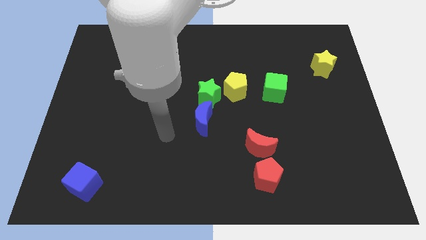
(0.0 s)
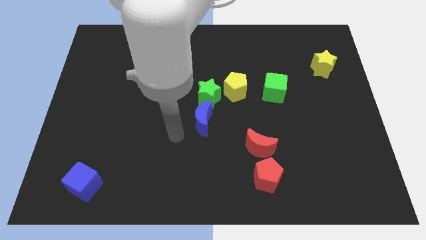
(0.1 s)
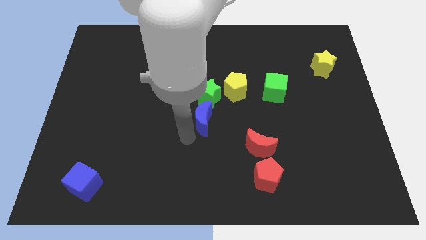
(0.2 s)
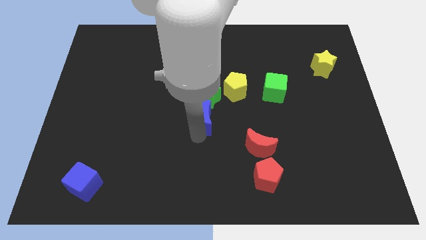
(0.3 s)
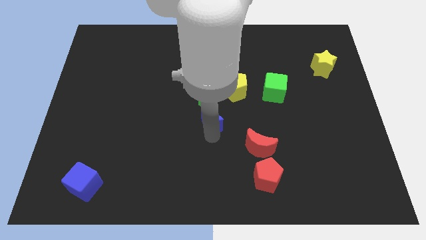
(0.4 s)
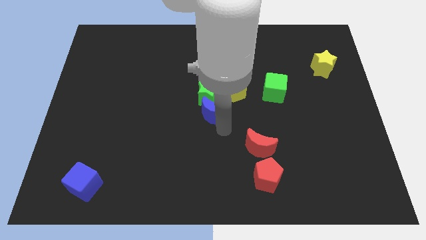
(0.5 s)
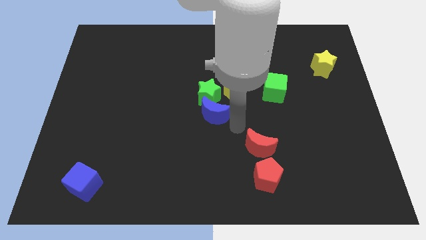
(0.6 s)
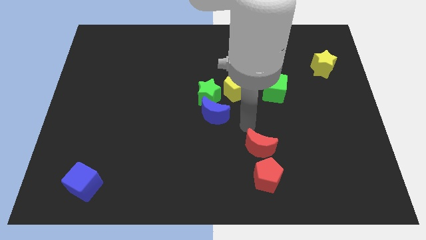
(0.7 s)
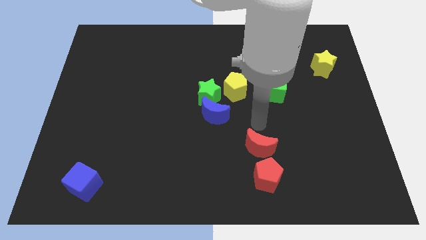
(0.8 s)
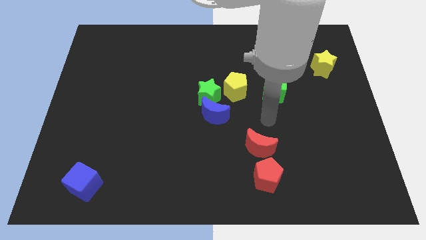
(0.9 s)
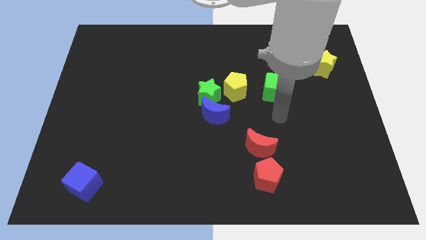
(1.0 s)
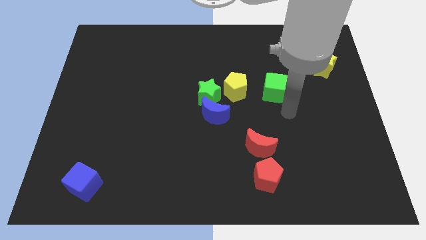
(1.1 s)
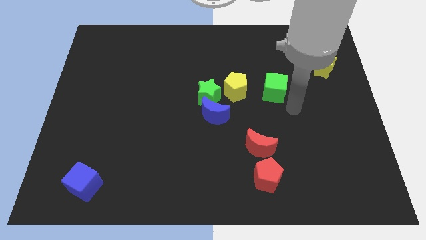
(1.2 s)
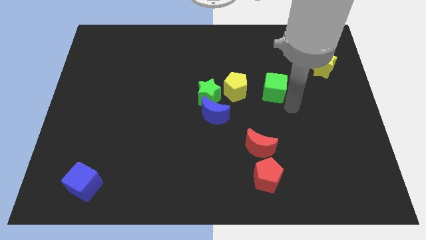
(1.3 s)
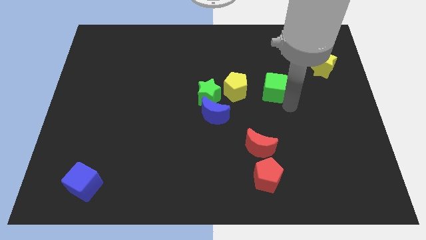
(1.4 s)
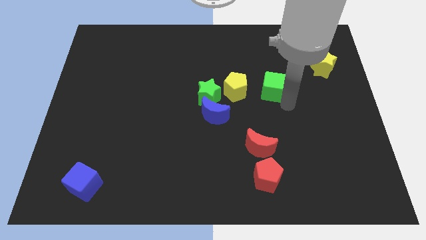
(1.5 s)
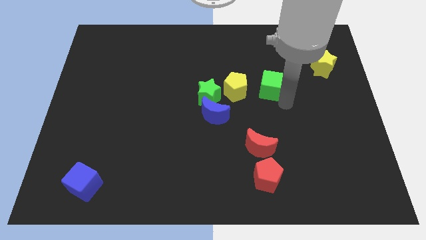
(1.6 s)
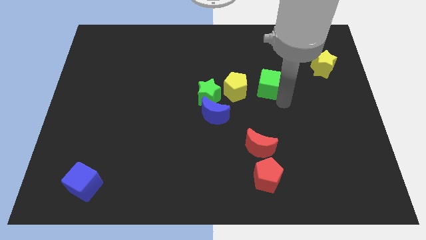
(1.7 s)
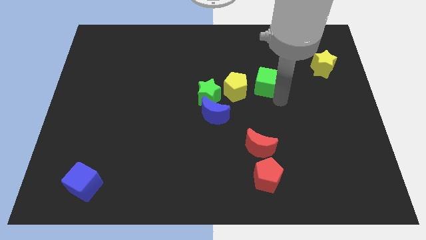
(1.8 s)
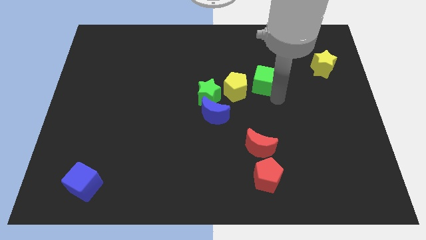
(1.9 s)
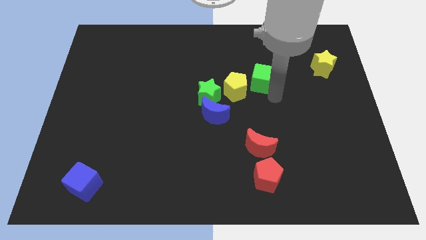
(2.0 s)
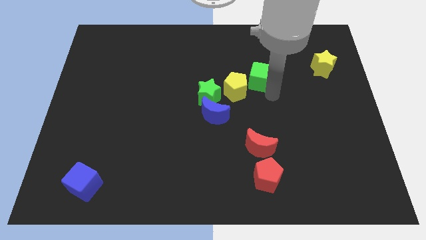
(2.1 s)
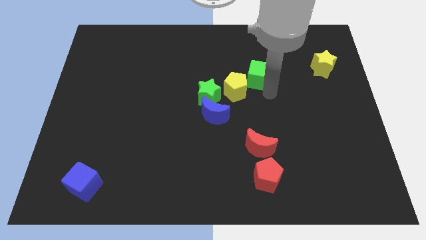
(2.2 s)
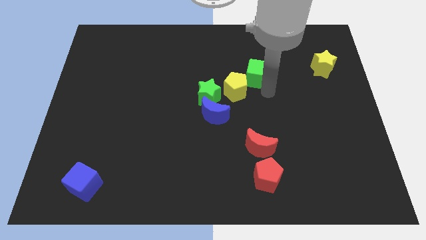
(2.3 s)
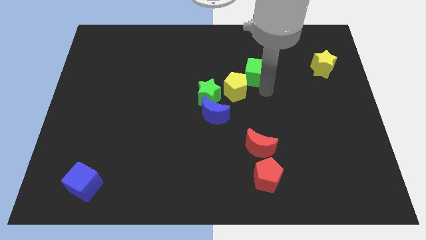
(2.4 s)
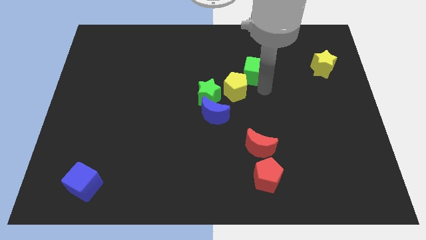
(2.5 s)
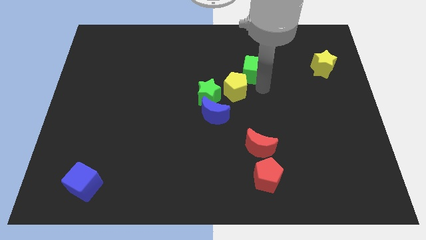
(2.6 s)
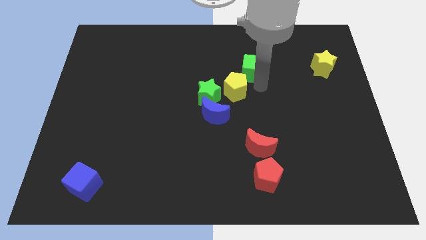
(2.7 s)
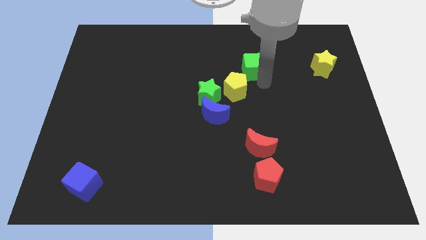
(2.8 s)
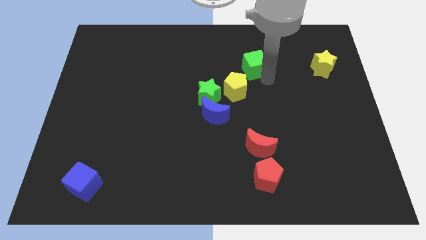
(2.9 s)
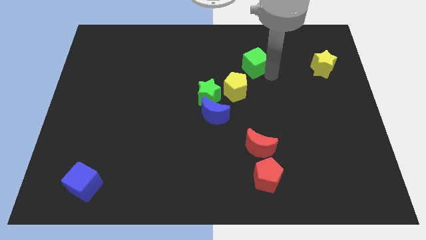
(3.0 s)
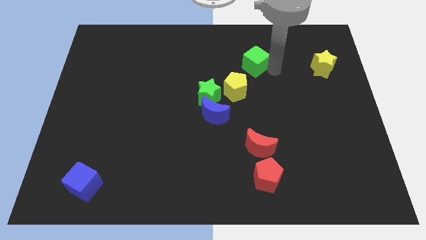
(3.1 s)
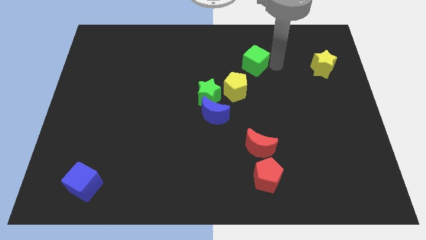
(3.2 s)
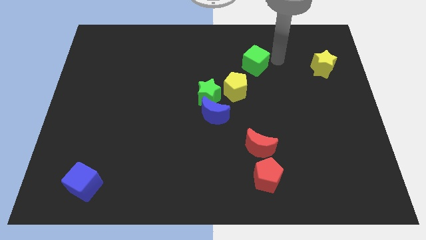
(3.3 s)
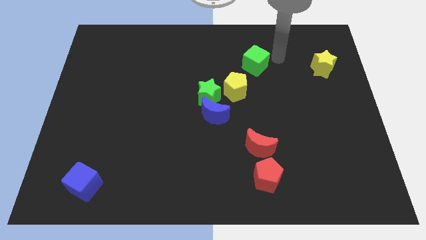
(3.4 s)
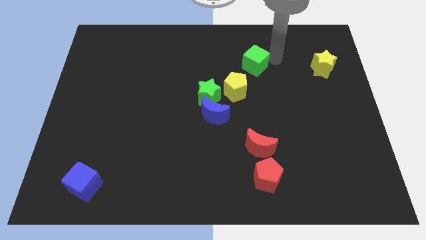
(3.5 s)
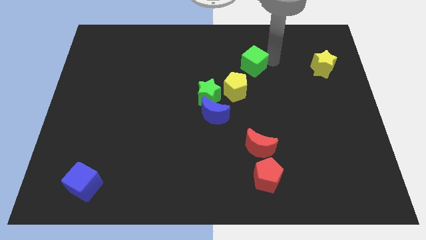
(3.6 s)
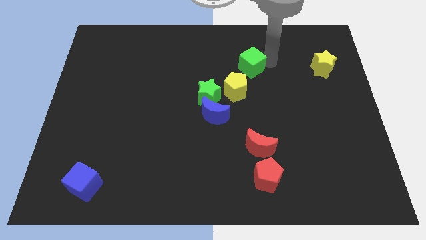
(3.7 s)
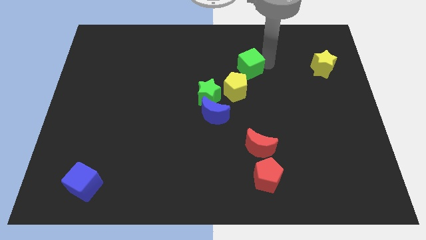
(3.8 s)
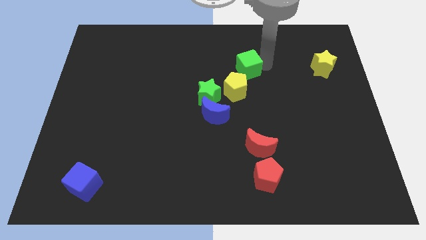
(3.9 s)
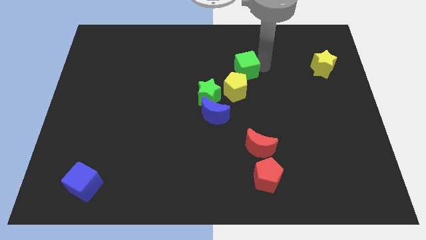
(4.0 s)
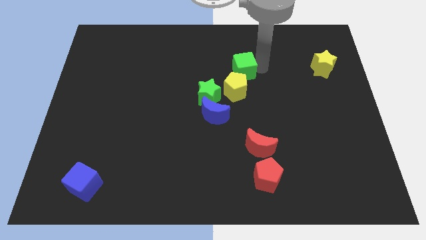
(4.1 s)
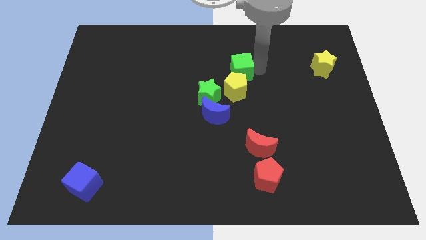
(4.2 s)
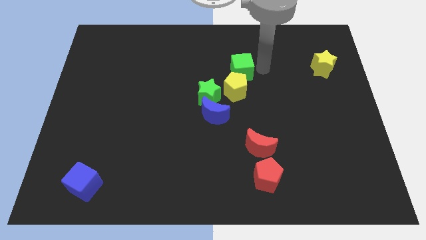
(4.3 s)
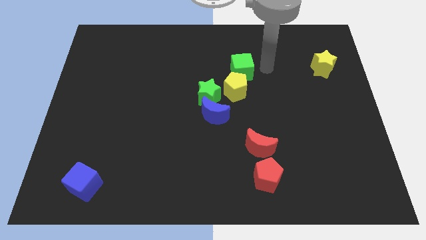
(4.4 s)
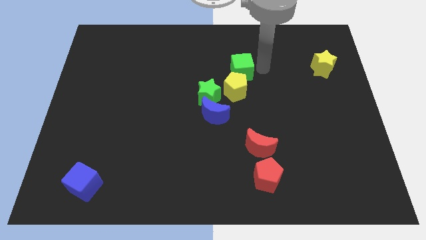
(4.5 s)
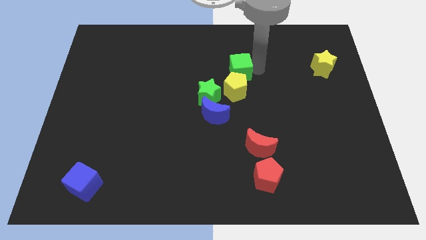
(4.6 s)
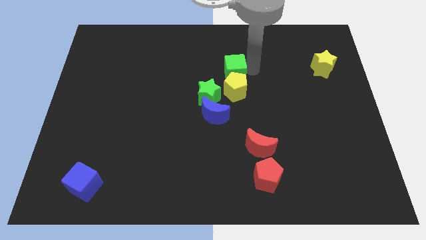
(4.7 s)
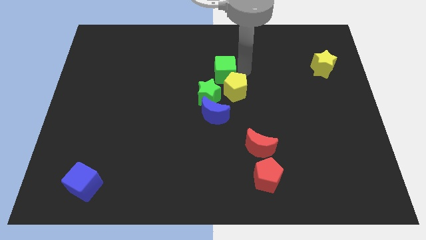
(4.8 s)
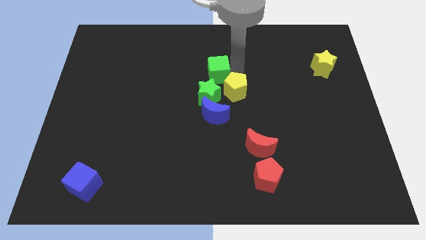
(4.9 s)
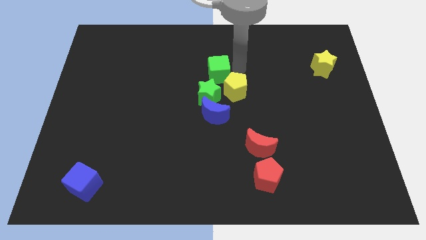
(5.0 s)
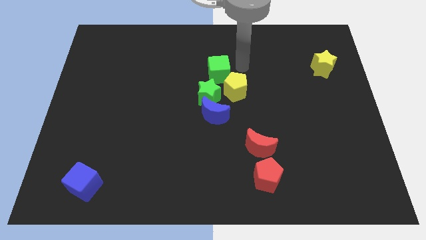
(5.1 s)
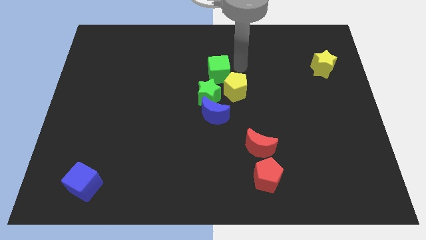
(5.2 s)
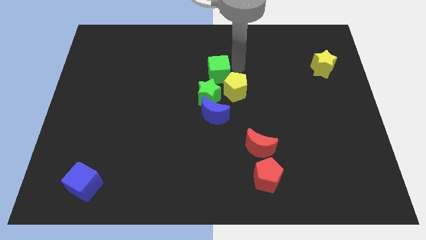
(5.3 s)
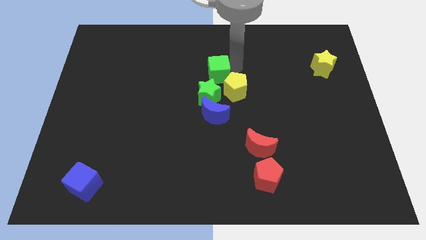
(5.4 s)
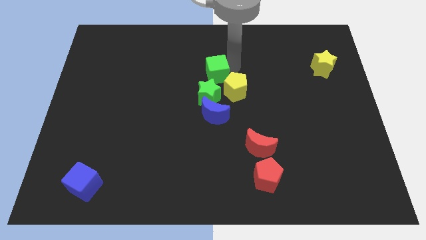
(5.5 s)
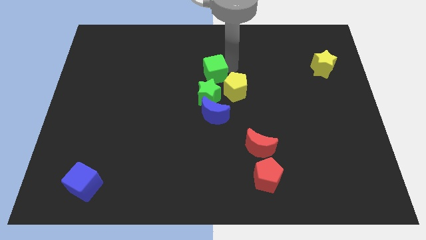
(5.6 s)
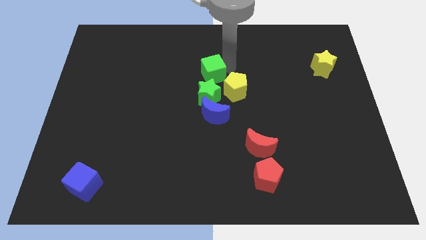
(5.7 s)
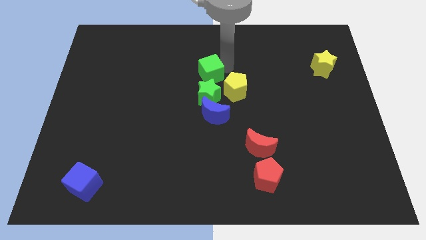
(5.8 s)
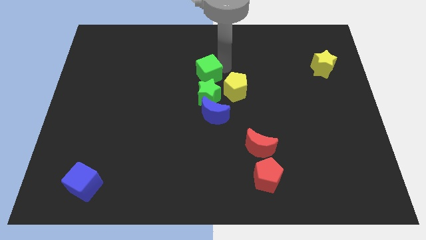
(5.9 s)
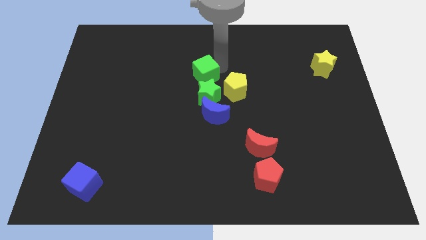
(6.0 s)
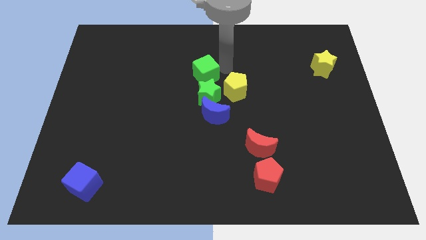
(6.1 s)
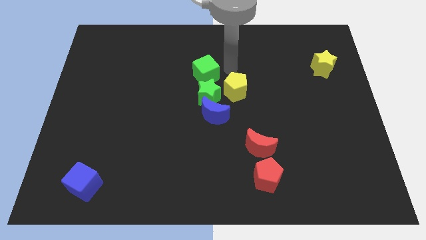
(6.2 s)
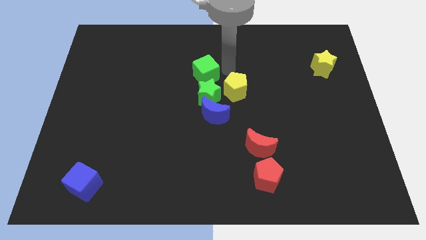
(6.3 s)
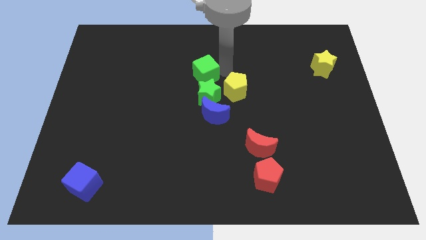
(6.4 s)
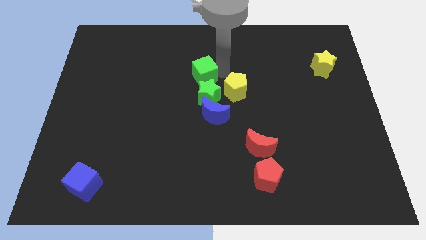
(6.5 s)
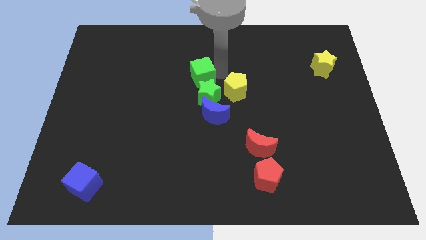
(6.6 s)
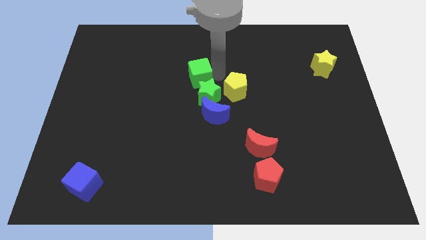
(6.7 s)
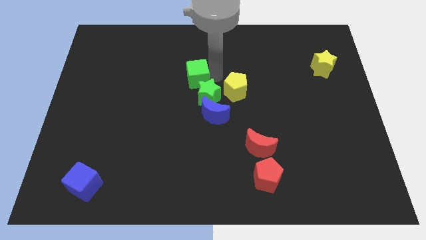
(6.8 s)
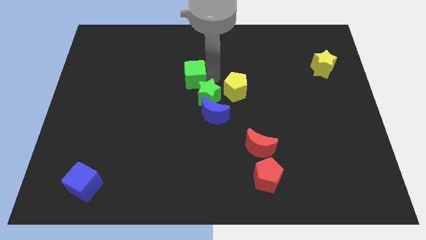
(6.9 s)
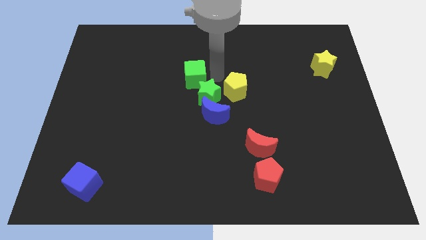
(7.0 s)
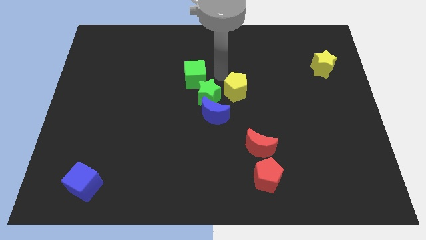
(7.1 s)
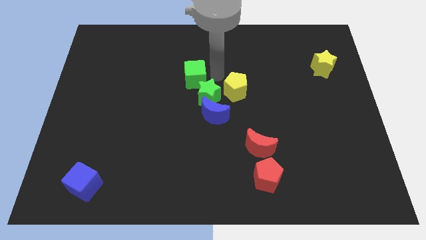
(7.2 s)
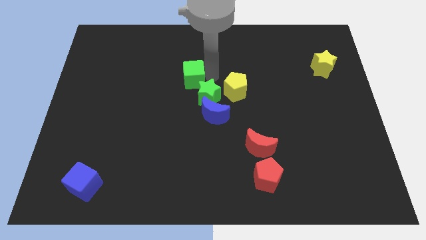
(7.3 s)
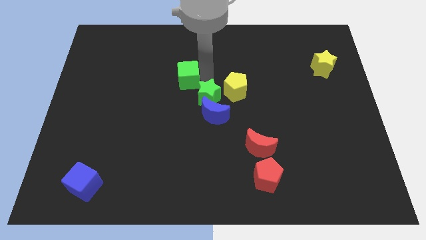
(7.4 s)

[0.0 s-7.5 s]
move the green cube to the left

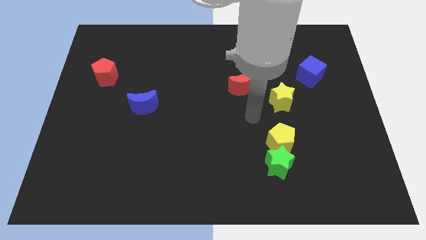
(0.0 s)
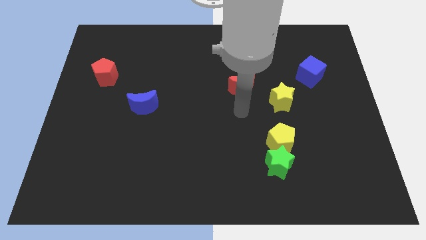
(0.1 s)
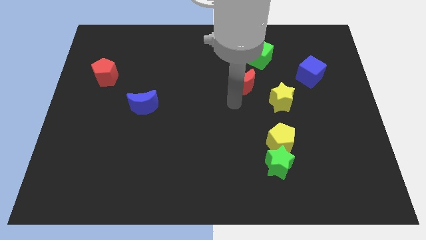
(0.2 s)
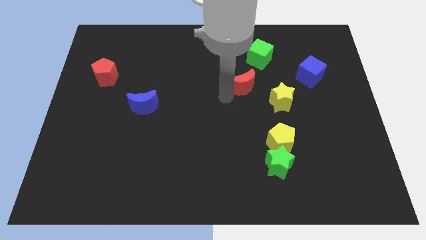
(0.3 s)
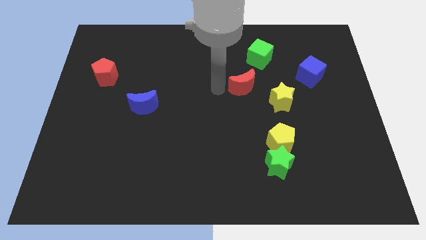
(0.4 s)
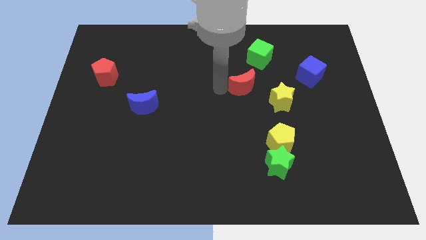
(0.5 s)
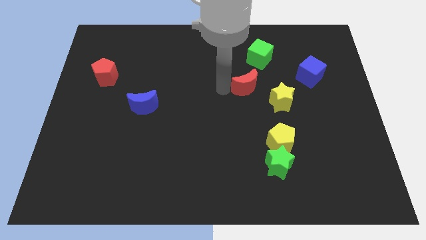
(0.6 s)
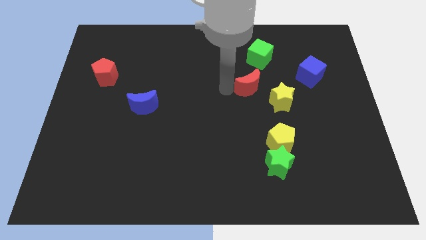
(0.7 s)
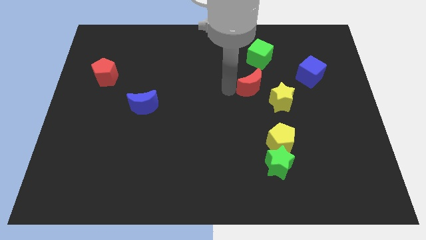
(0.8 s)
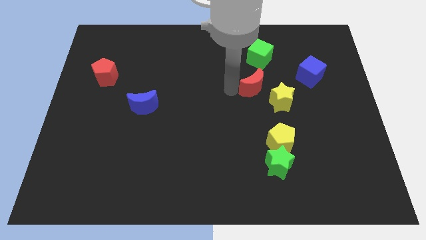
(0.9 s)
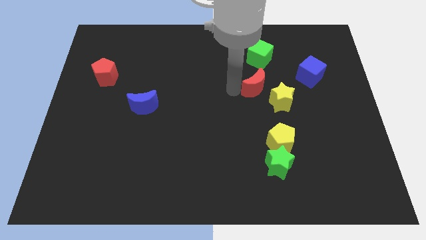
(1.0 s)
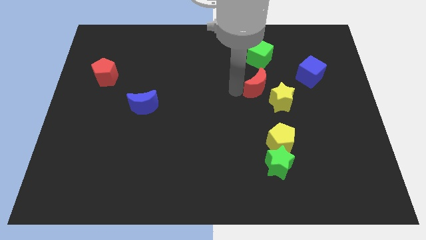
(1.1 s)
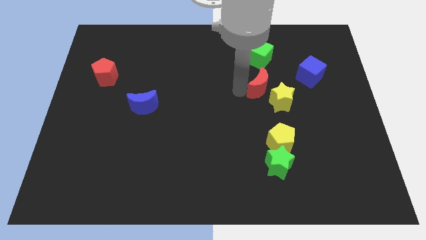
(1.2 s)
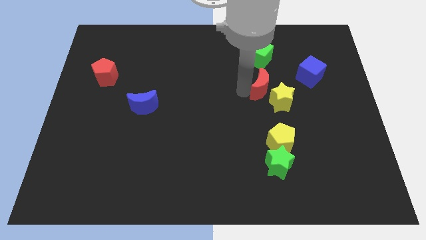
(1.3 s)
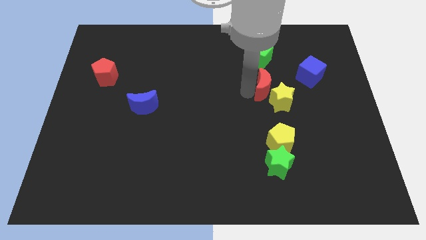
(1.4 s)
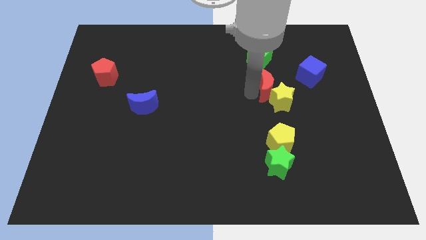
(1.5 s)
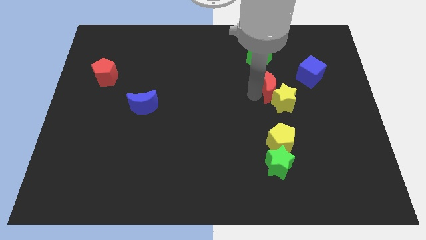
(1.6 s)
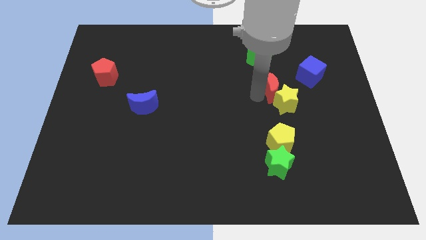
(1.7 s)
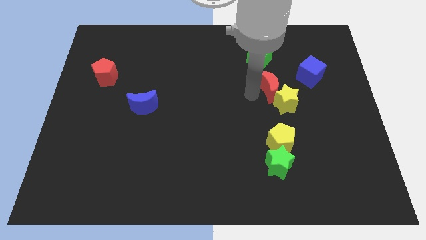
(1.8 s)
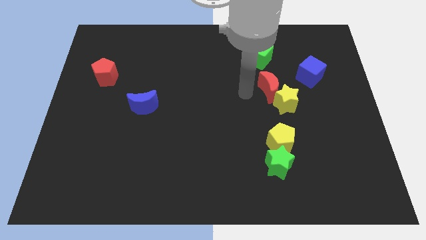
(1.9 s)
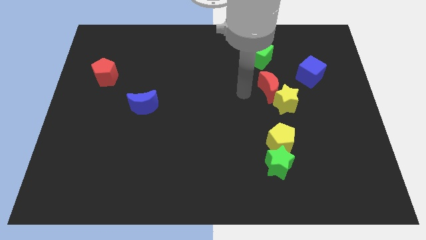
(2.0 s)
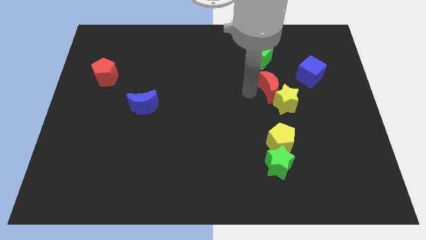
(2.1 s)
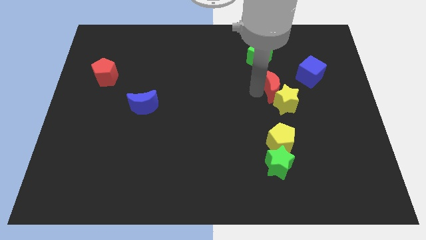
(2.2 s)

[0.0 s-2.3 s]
slightly move the red moon right
